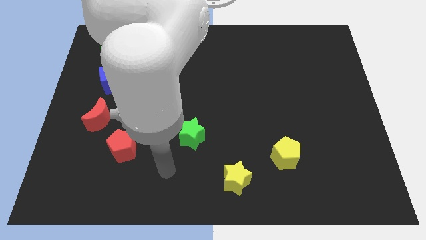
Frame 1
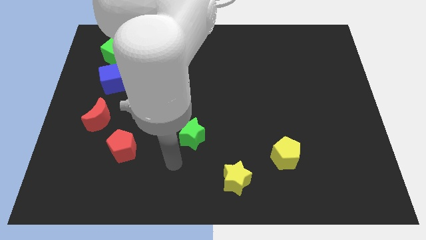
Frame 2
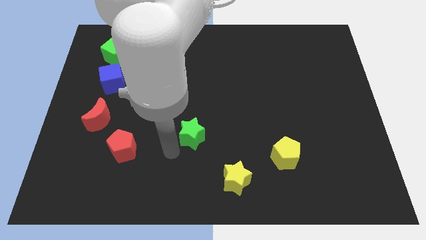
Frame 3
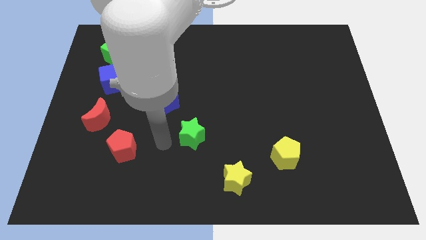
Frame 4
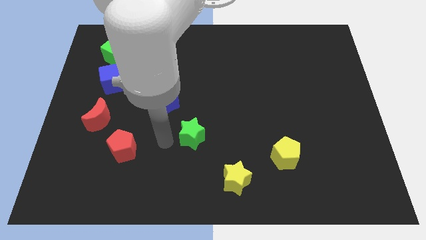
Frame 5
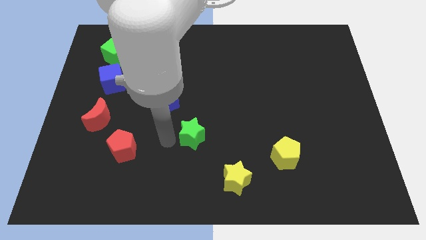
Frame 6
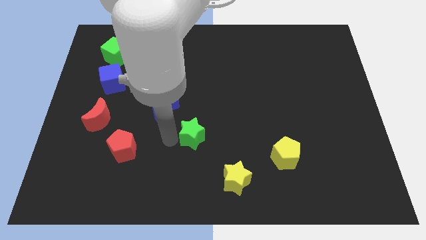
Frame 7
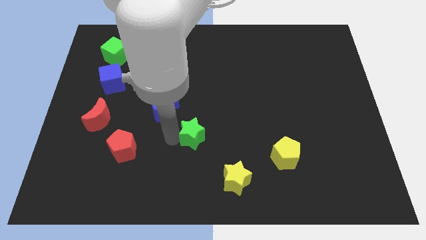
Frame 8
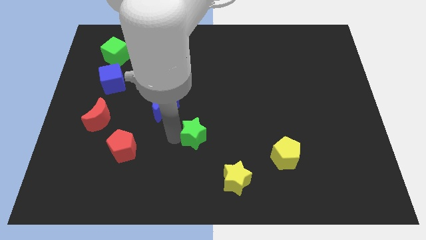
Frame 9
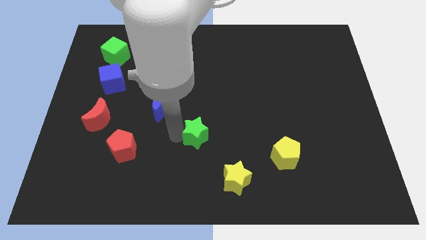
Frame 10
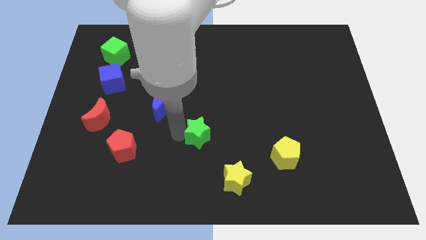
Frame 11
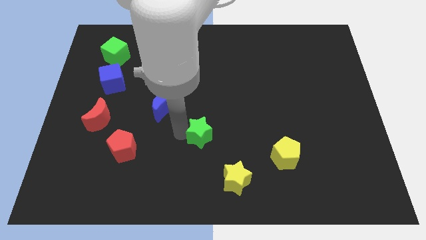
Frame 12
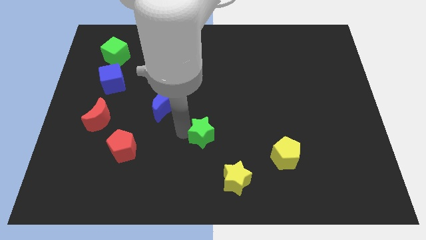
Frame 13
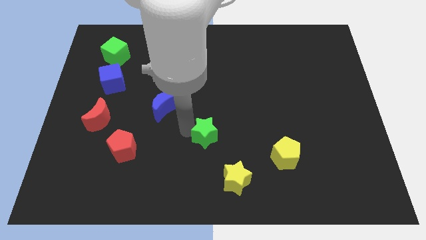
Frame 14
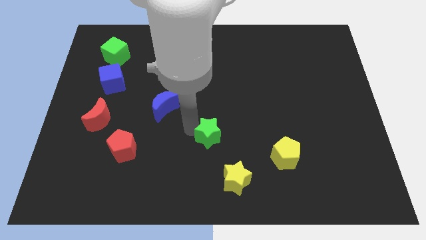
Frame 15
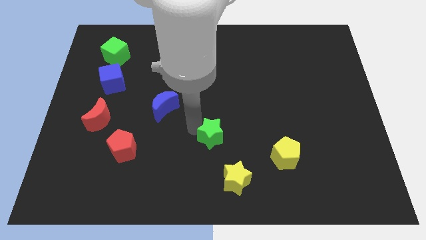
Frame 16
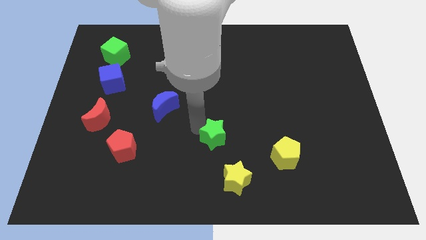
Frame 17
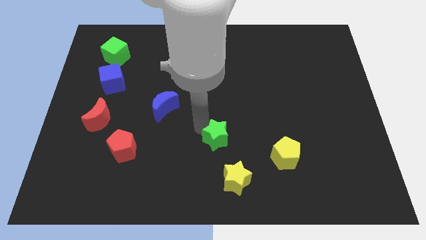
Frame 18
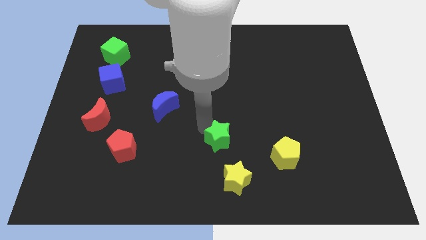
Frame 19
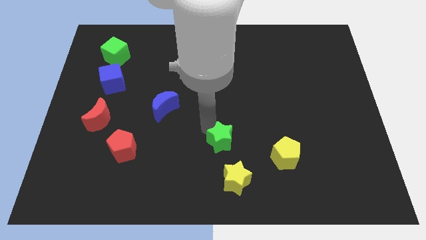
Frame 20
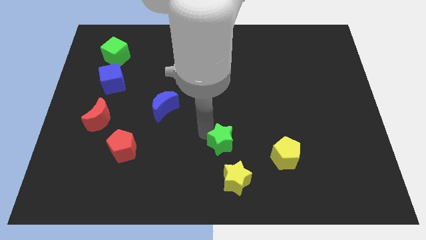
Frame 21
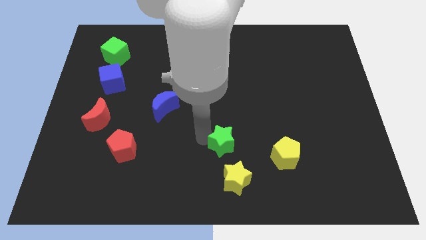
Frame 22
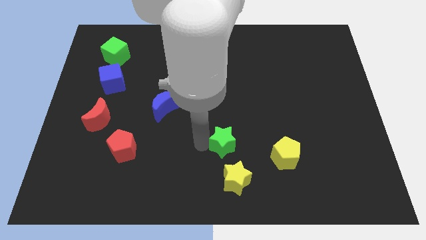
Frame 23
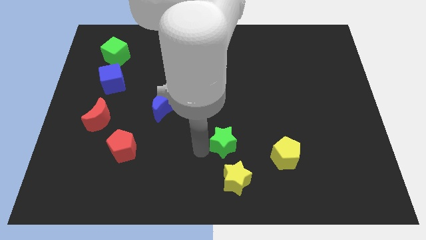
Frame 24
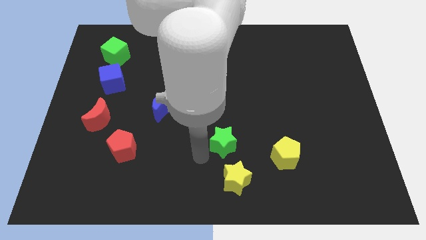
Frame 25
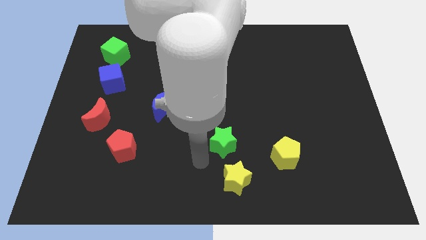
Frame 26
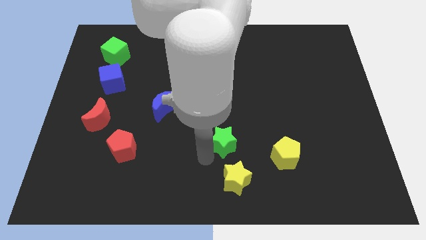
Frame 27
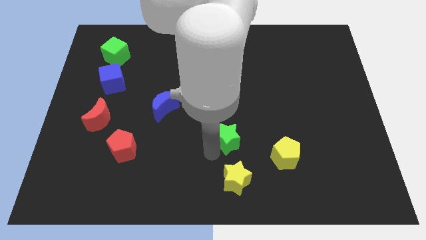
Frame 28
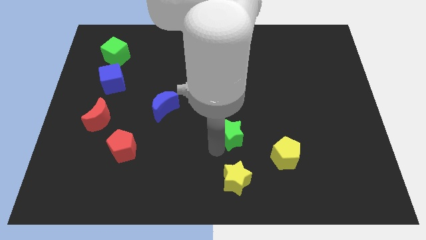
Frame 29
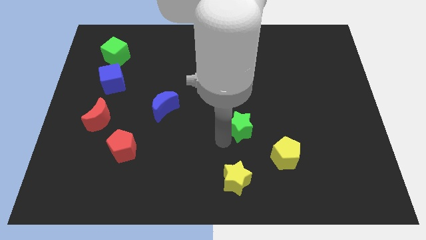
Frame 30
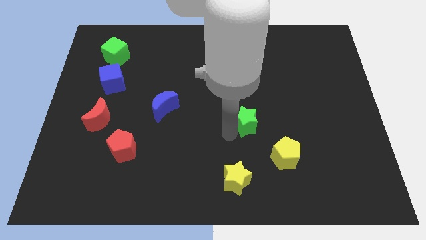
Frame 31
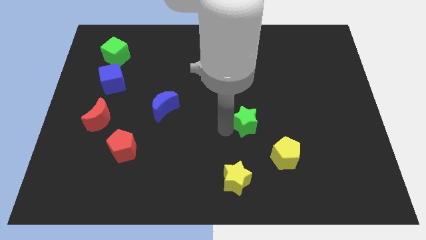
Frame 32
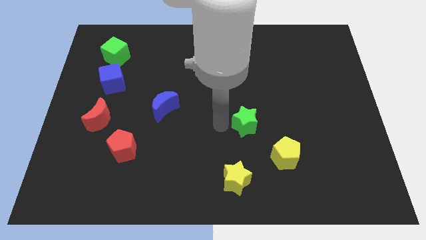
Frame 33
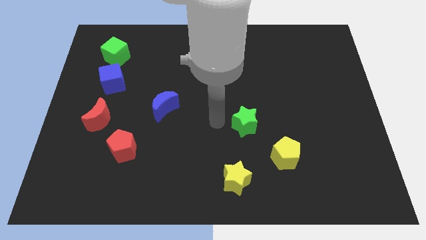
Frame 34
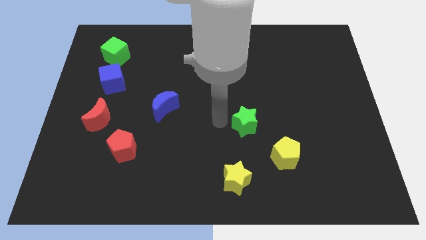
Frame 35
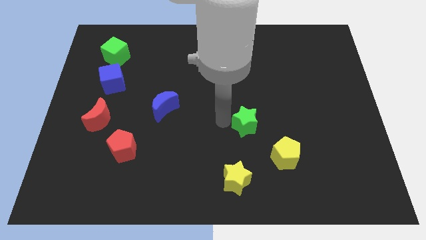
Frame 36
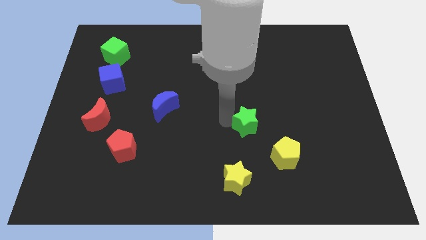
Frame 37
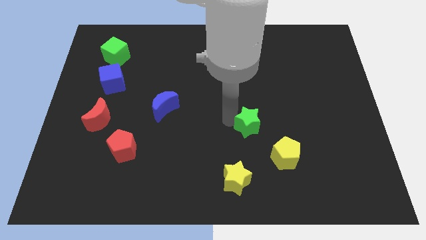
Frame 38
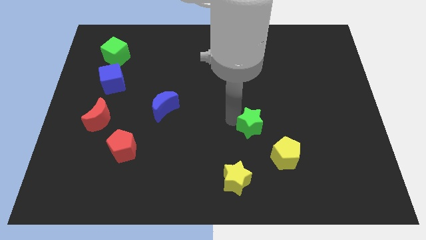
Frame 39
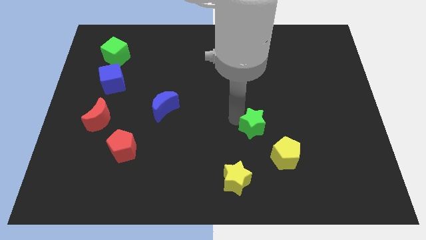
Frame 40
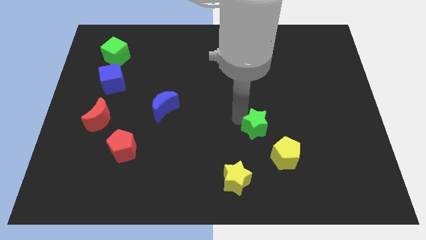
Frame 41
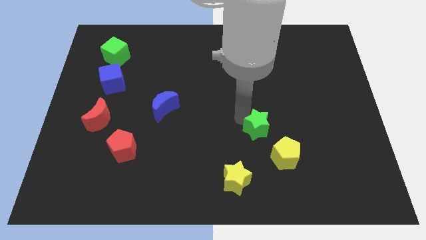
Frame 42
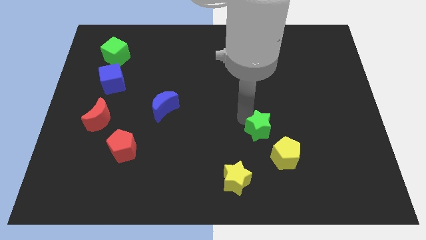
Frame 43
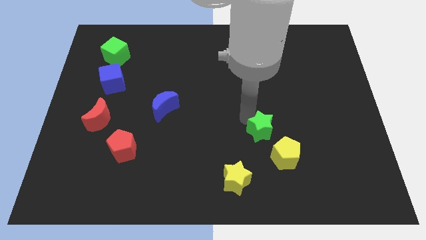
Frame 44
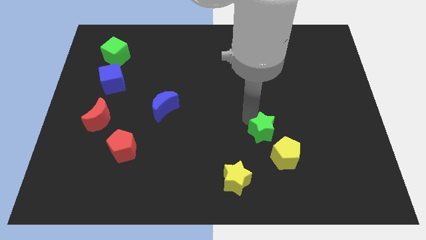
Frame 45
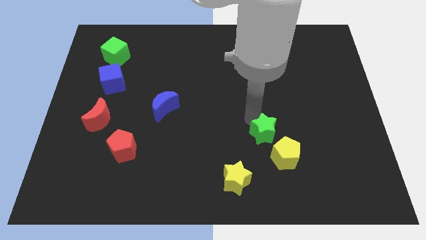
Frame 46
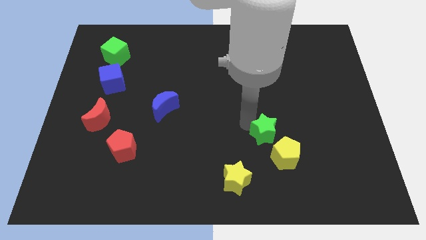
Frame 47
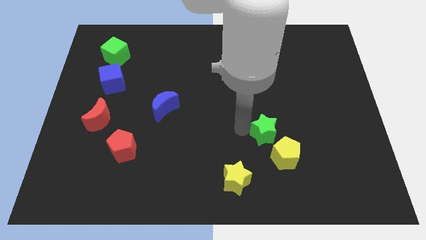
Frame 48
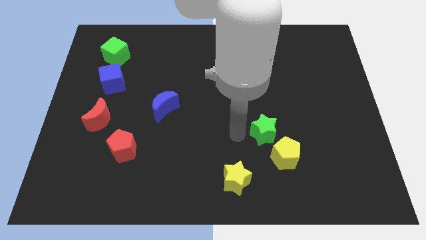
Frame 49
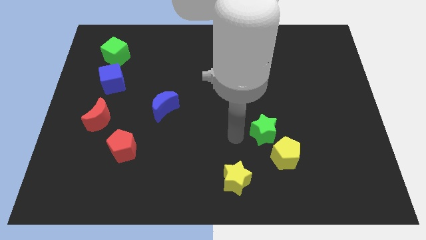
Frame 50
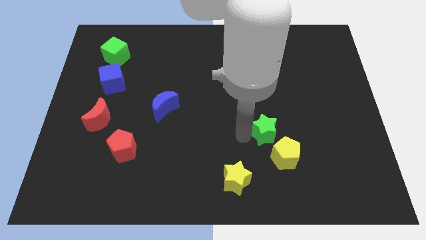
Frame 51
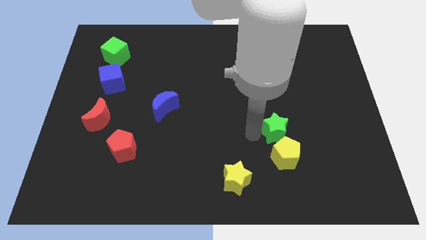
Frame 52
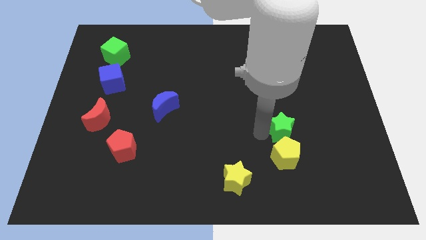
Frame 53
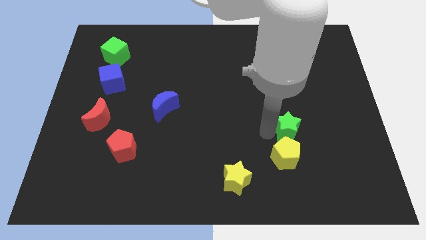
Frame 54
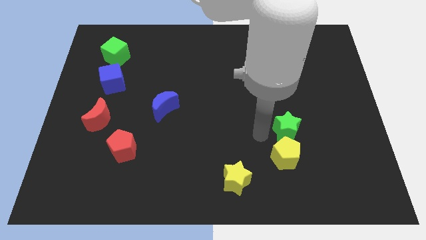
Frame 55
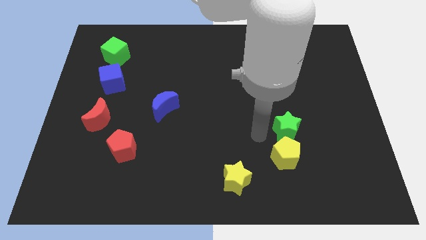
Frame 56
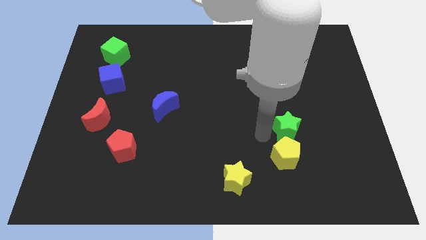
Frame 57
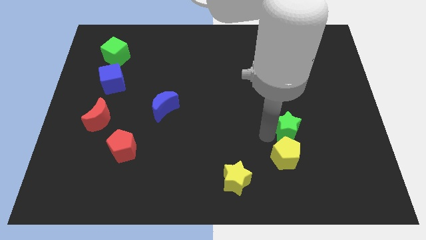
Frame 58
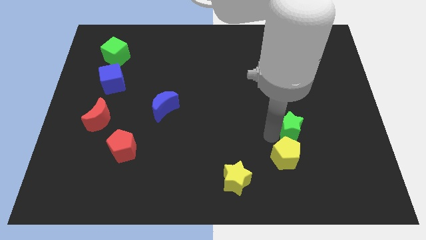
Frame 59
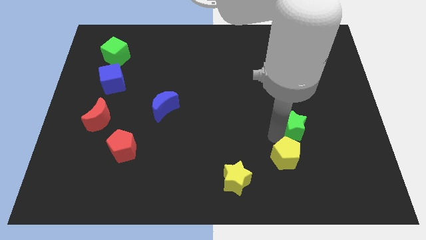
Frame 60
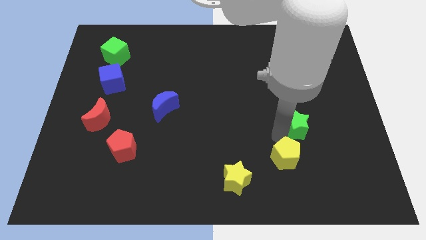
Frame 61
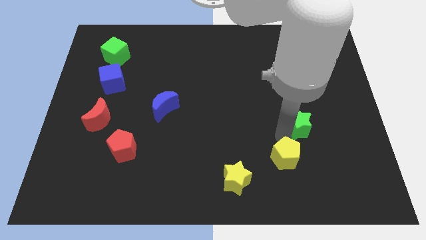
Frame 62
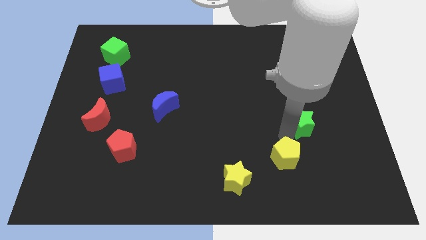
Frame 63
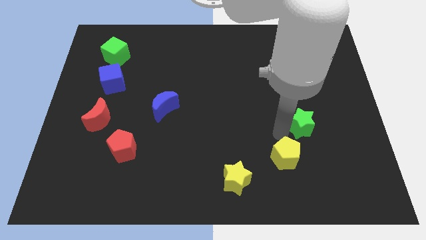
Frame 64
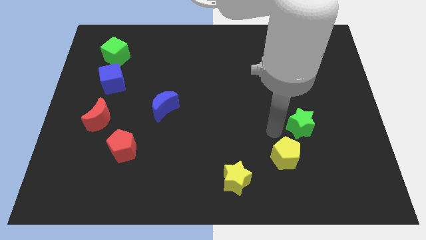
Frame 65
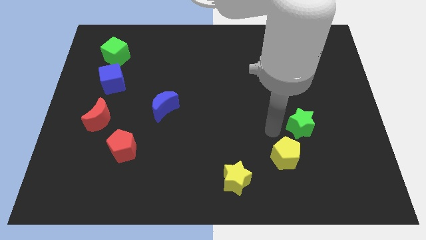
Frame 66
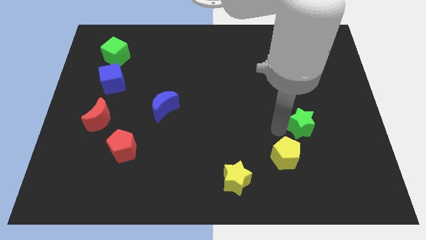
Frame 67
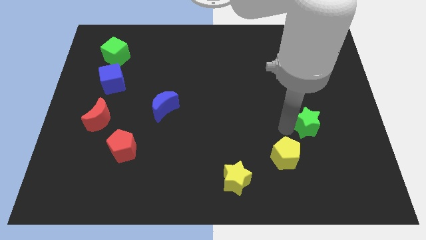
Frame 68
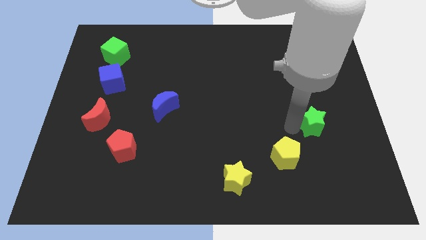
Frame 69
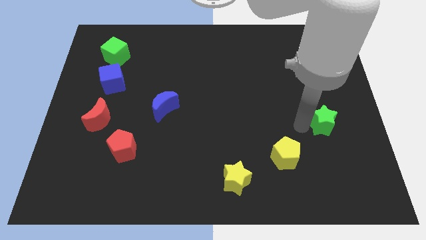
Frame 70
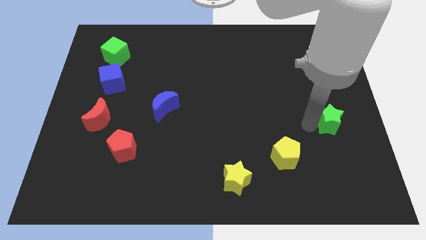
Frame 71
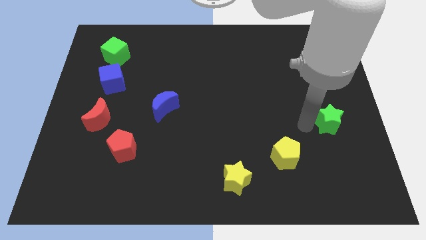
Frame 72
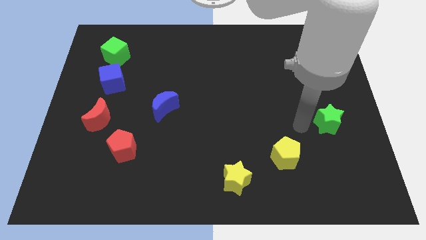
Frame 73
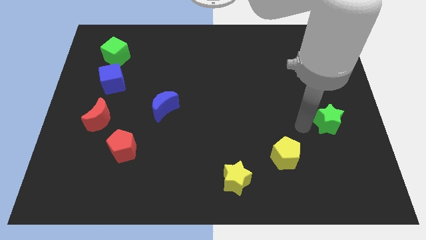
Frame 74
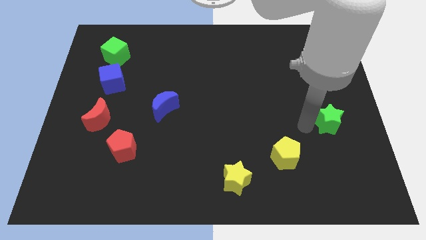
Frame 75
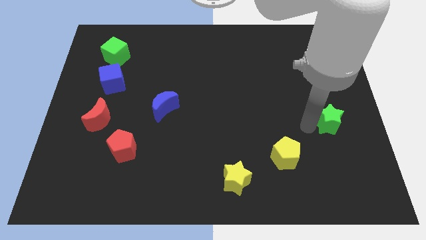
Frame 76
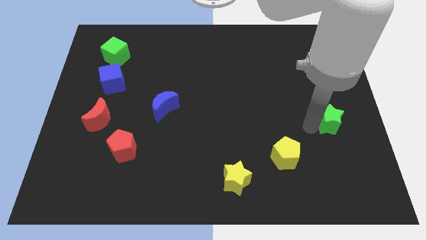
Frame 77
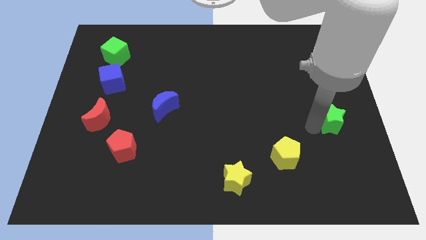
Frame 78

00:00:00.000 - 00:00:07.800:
push the green star to the right side of the board
